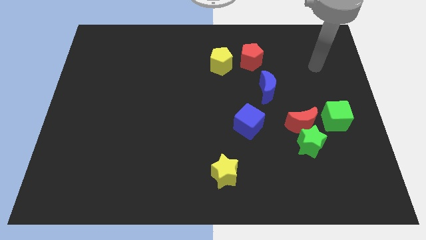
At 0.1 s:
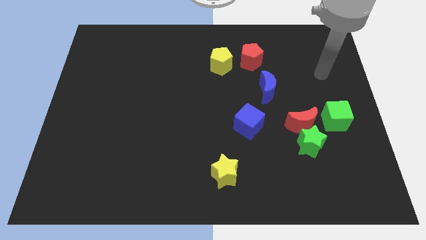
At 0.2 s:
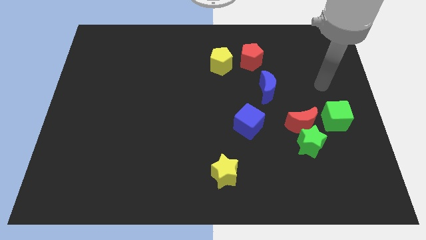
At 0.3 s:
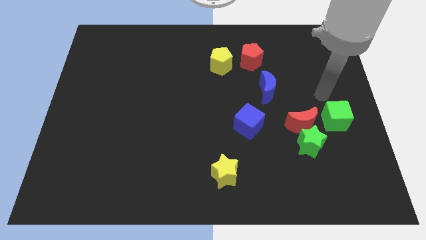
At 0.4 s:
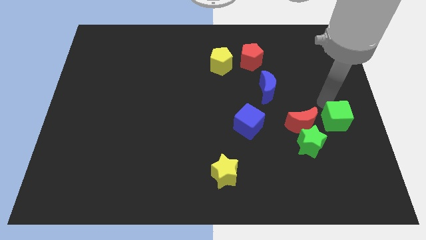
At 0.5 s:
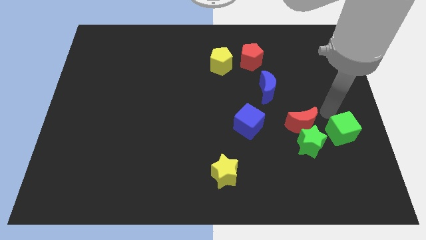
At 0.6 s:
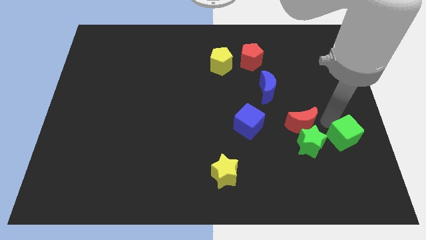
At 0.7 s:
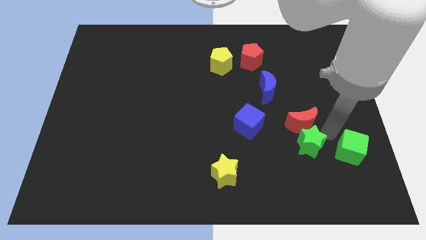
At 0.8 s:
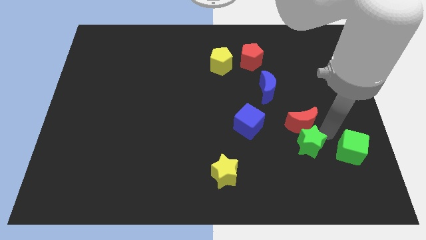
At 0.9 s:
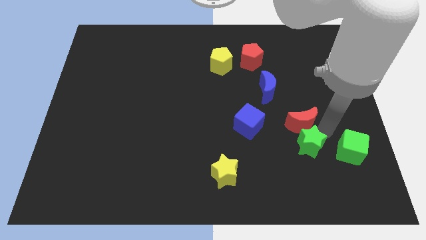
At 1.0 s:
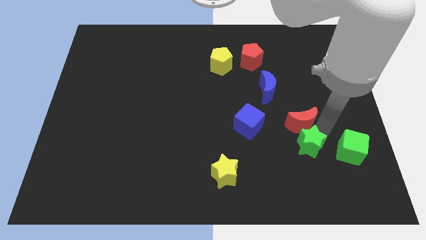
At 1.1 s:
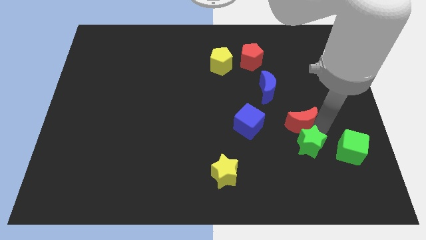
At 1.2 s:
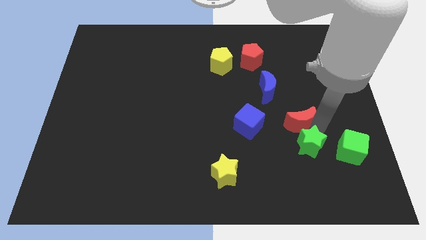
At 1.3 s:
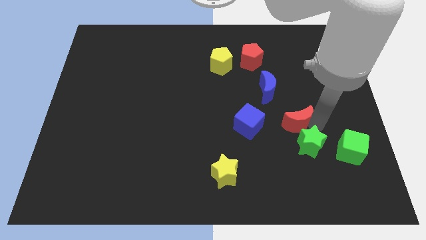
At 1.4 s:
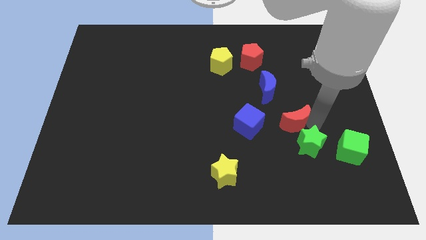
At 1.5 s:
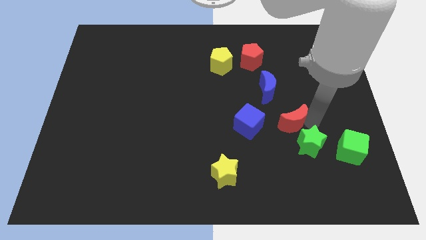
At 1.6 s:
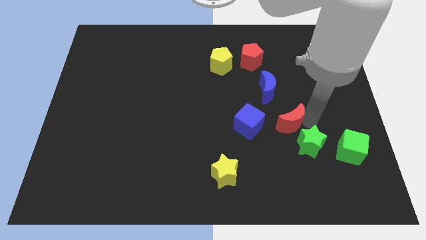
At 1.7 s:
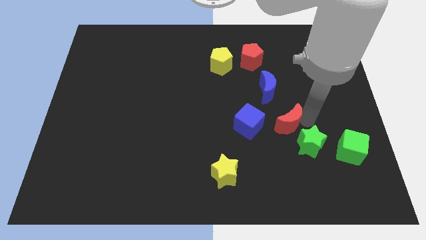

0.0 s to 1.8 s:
separate the red moon from the green star and green cube

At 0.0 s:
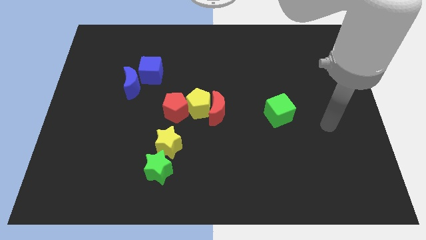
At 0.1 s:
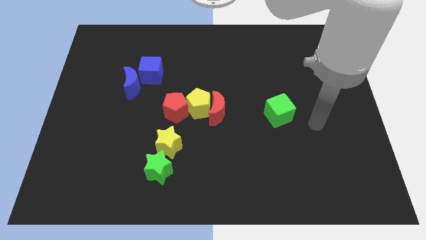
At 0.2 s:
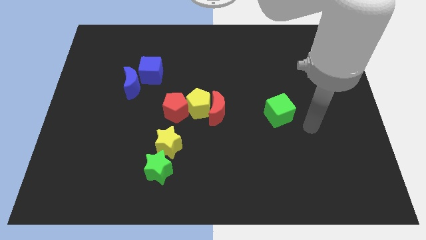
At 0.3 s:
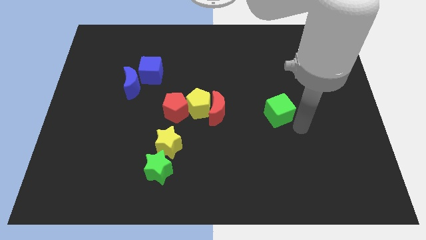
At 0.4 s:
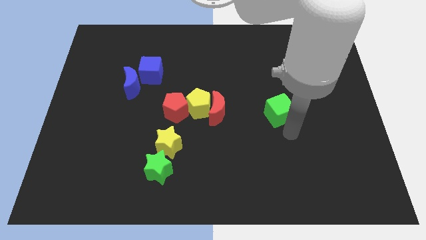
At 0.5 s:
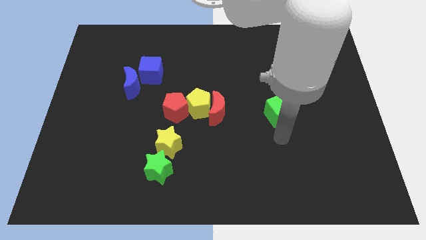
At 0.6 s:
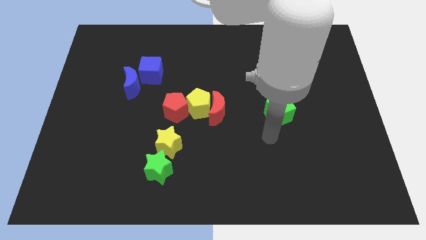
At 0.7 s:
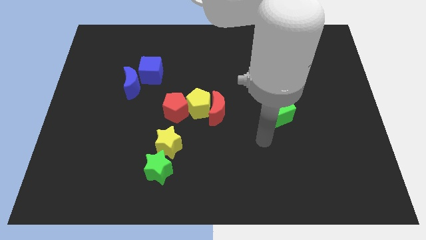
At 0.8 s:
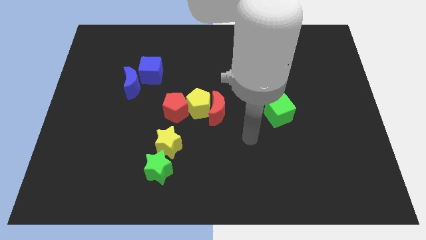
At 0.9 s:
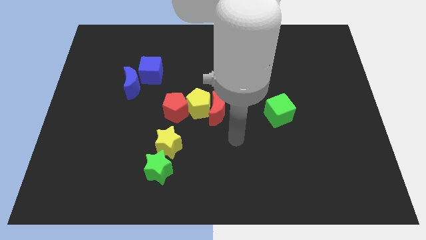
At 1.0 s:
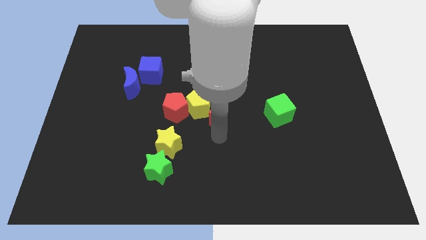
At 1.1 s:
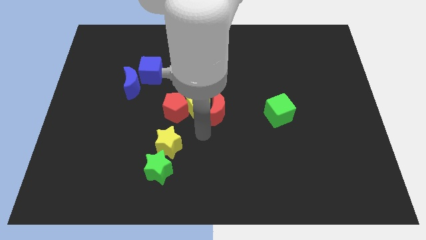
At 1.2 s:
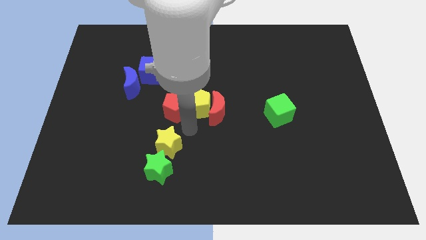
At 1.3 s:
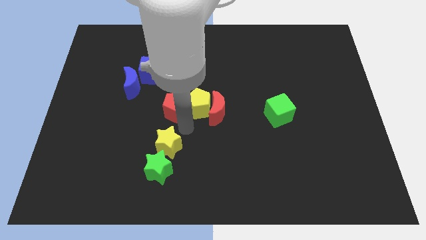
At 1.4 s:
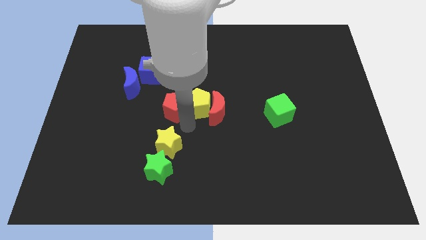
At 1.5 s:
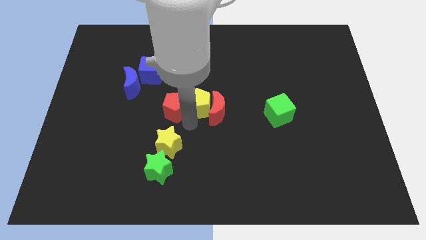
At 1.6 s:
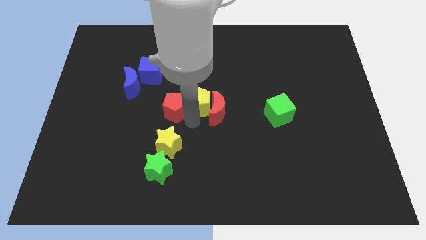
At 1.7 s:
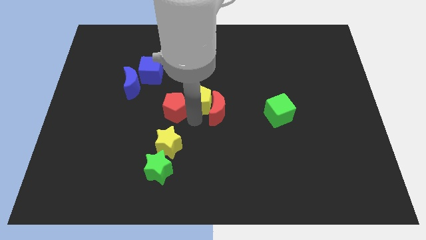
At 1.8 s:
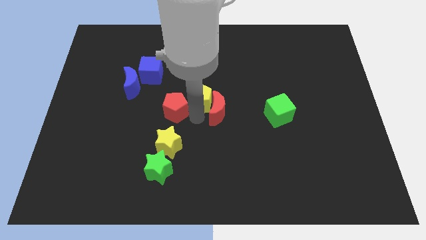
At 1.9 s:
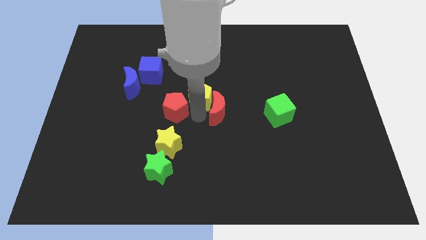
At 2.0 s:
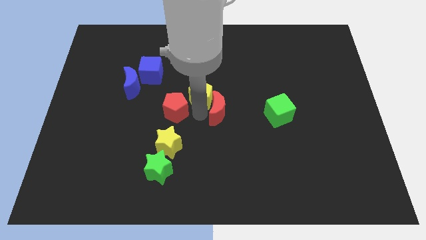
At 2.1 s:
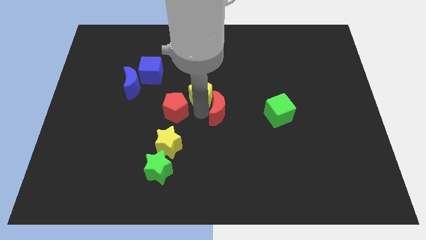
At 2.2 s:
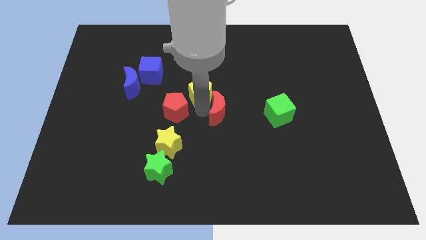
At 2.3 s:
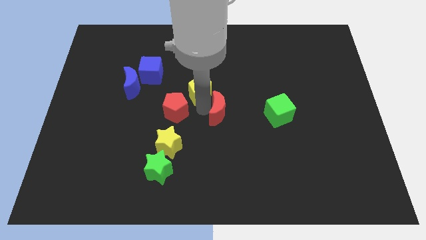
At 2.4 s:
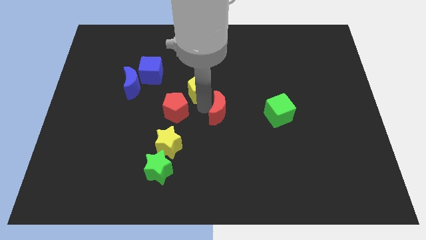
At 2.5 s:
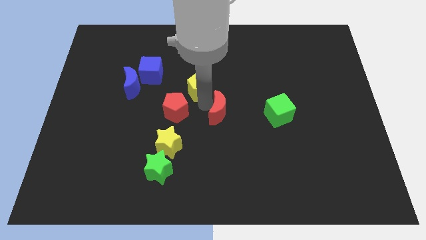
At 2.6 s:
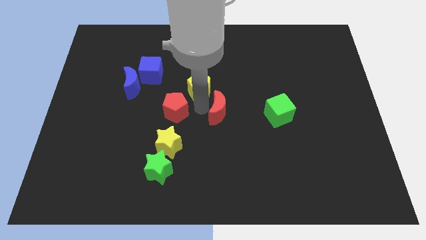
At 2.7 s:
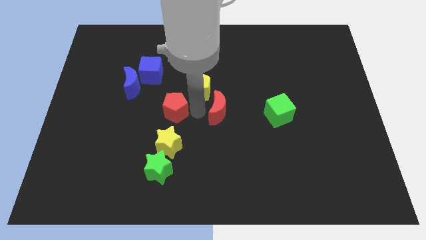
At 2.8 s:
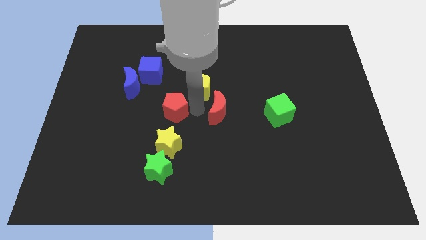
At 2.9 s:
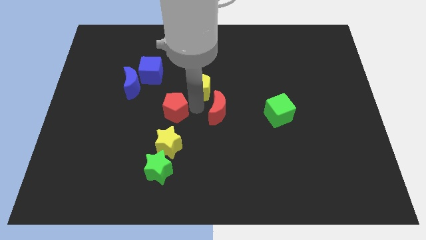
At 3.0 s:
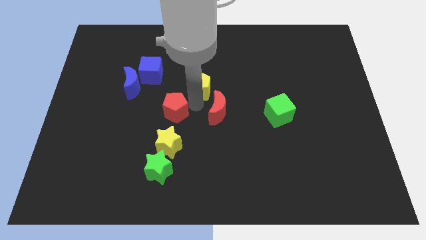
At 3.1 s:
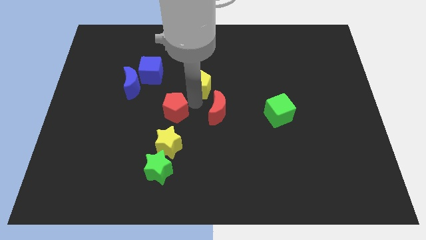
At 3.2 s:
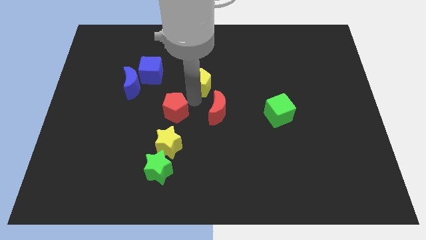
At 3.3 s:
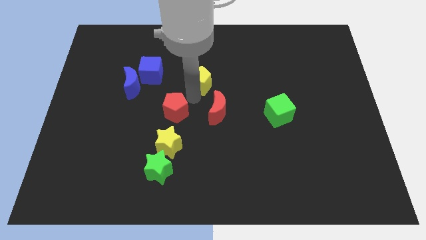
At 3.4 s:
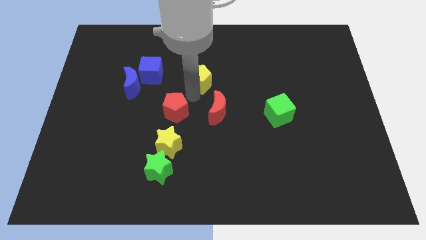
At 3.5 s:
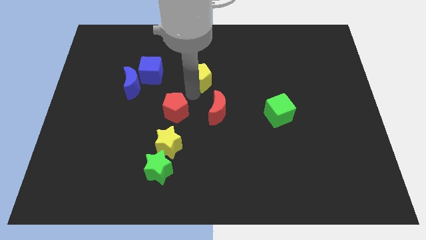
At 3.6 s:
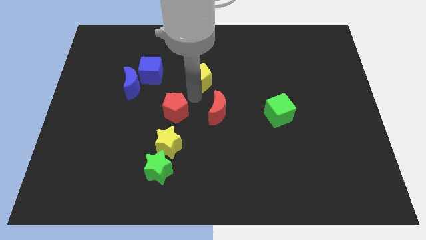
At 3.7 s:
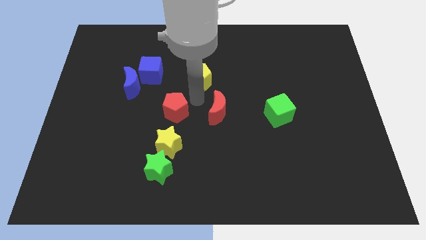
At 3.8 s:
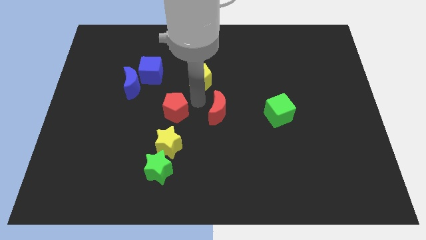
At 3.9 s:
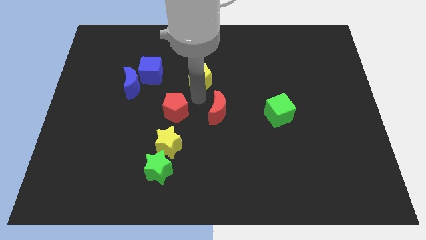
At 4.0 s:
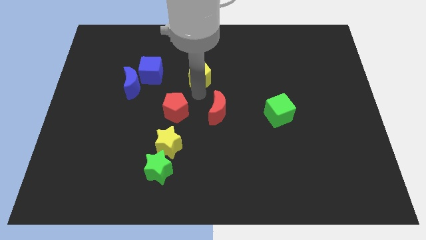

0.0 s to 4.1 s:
move the yellow pentagon away from the red moon and red pentagon

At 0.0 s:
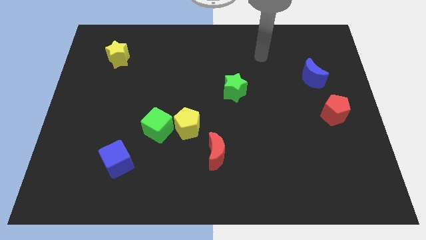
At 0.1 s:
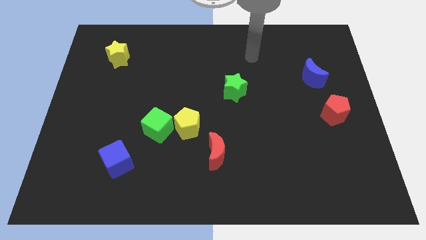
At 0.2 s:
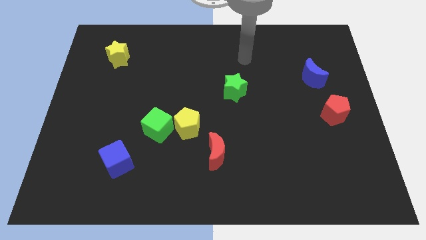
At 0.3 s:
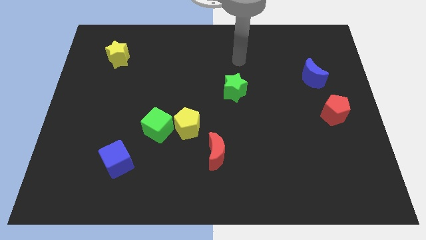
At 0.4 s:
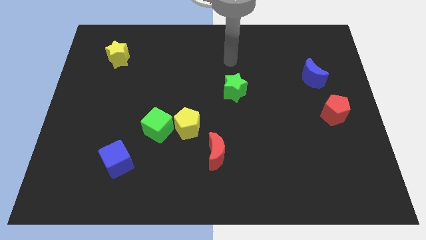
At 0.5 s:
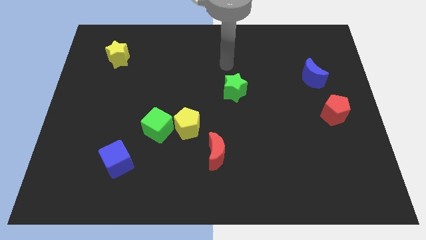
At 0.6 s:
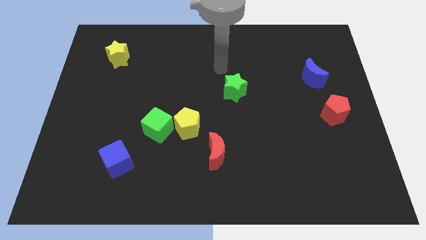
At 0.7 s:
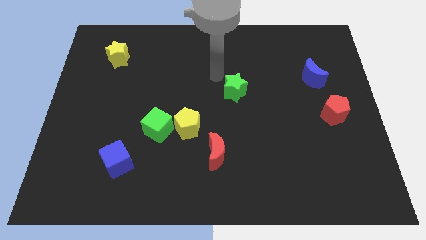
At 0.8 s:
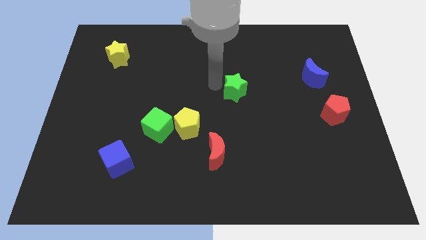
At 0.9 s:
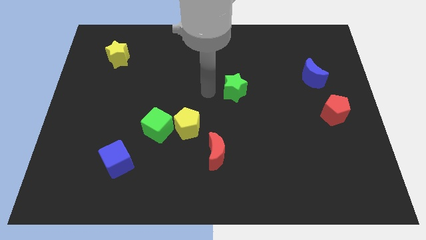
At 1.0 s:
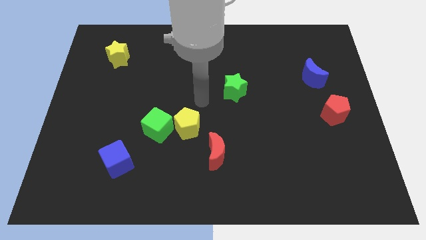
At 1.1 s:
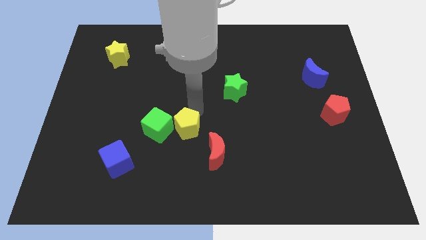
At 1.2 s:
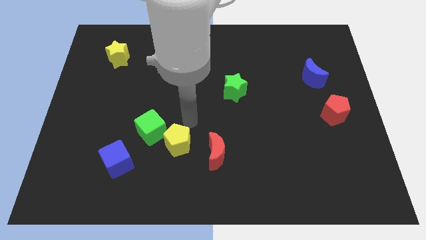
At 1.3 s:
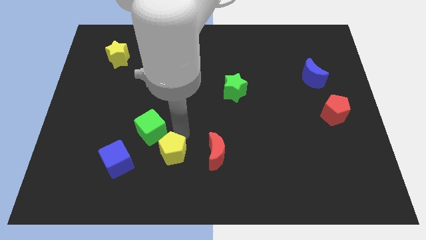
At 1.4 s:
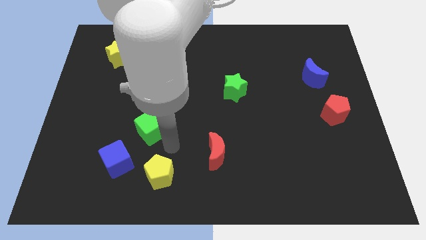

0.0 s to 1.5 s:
move the green cube away from the yellow pentagon

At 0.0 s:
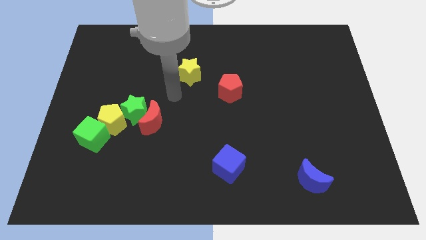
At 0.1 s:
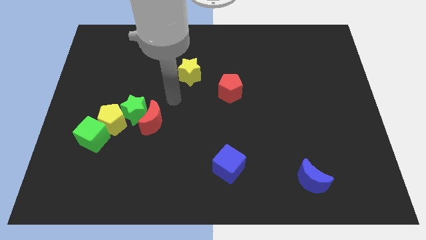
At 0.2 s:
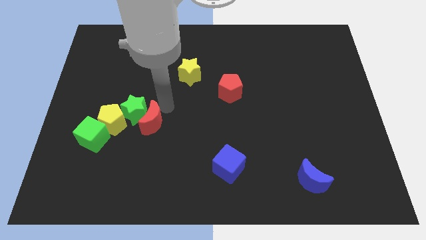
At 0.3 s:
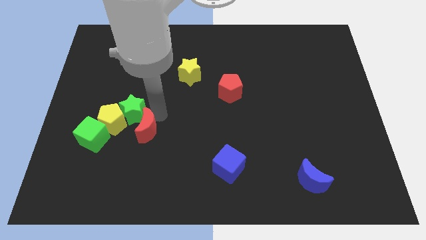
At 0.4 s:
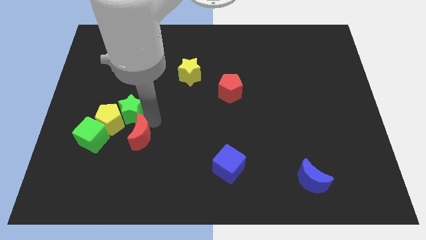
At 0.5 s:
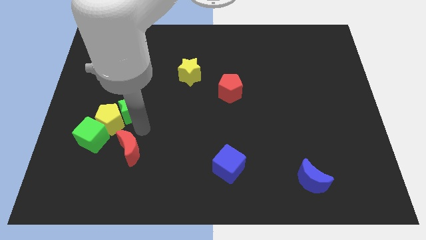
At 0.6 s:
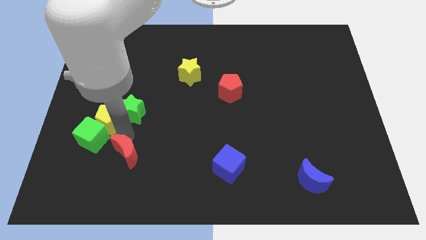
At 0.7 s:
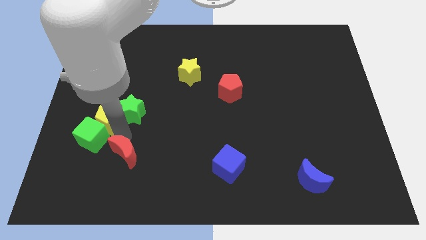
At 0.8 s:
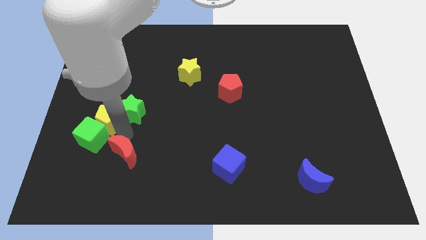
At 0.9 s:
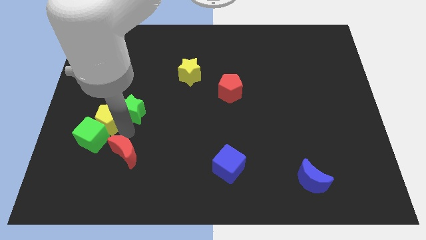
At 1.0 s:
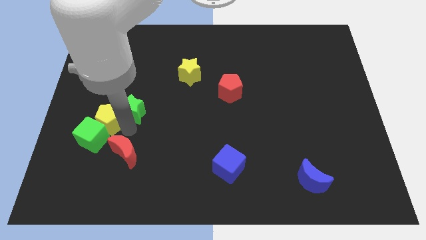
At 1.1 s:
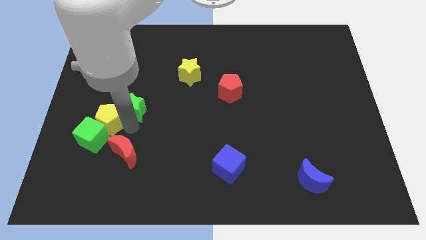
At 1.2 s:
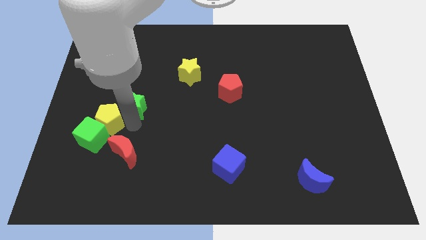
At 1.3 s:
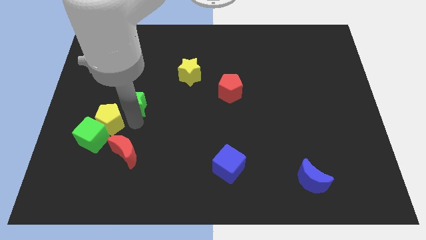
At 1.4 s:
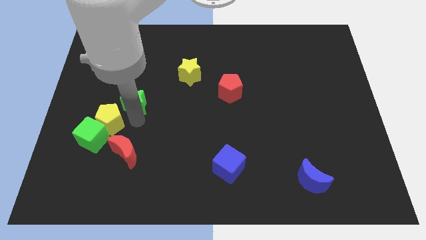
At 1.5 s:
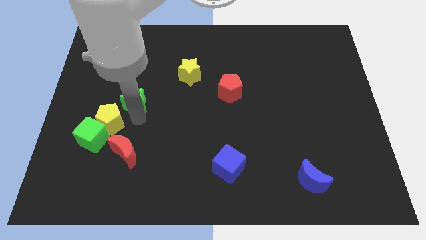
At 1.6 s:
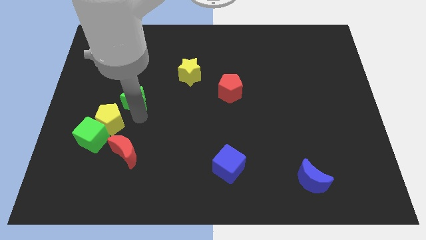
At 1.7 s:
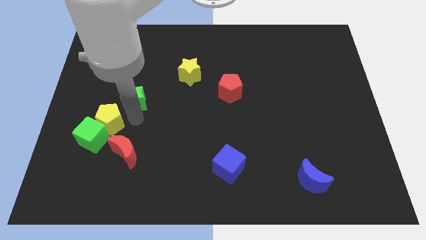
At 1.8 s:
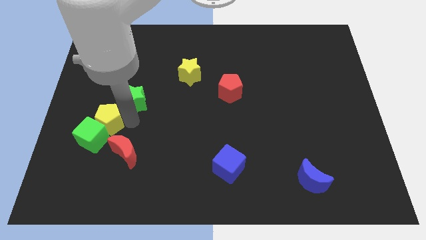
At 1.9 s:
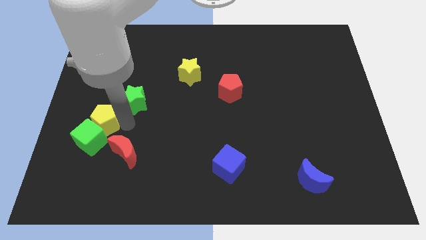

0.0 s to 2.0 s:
separate the green star from the red moon and yellow pentagon

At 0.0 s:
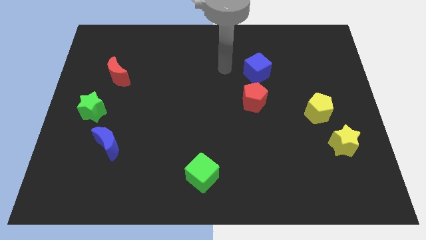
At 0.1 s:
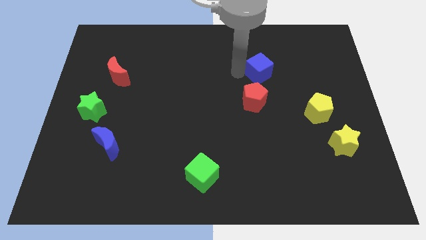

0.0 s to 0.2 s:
separate the red pentagon from the blue cube
